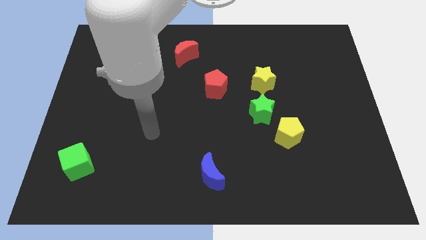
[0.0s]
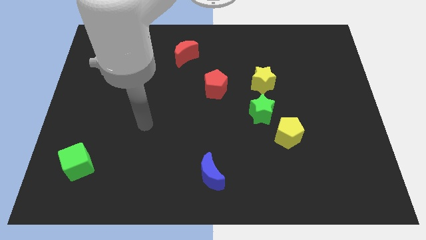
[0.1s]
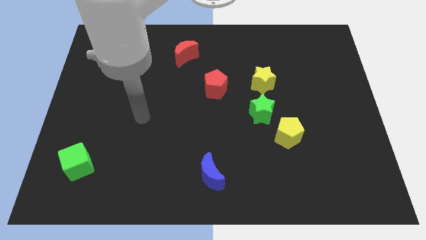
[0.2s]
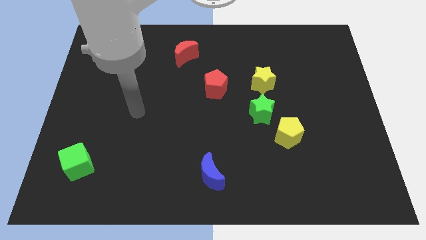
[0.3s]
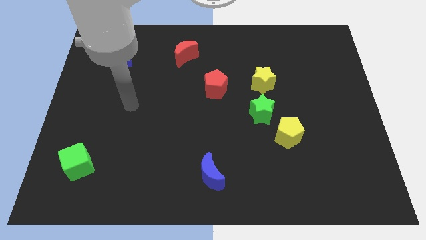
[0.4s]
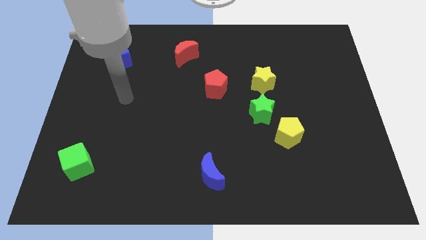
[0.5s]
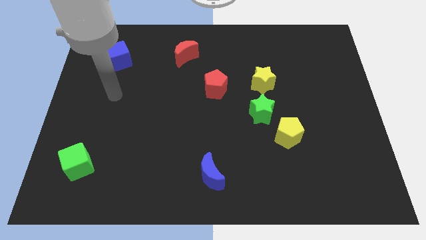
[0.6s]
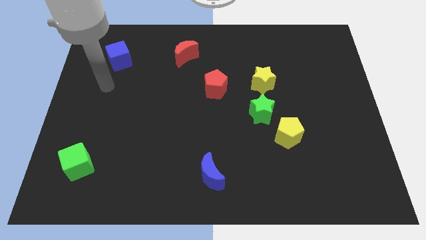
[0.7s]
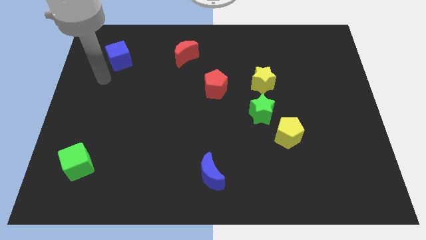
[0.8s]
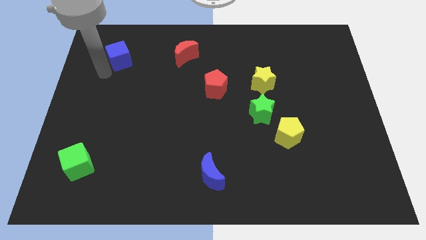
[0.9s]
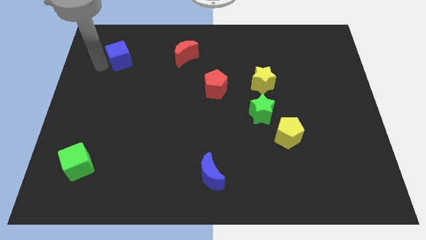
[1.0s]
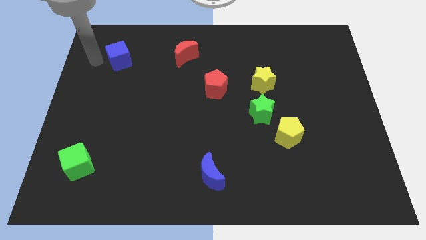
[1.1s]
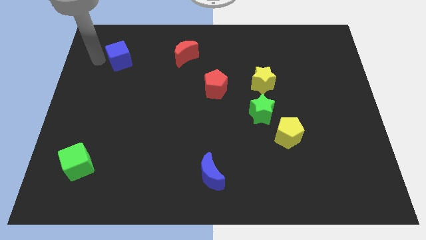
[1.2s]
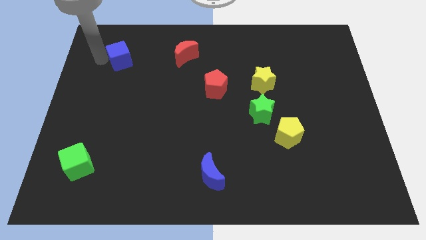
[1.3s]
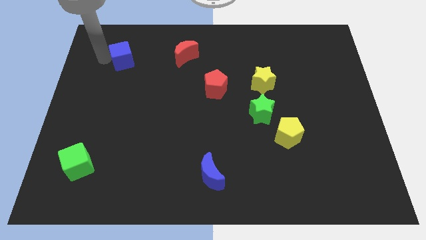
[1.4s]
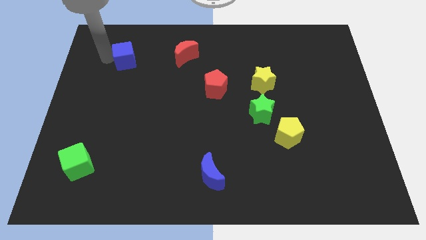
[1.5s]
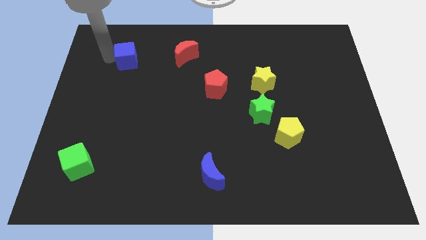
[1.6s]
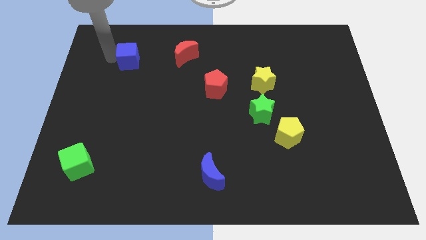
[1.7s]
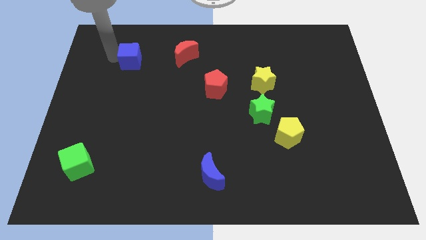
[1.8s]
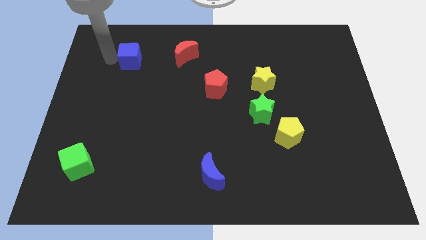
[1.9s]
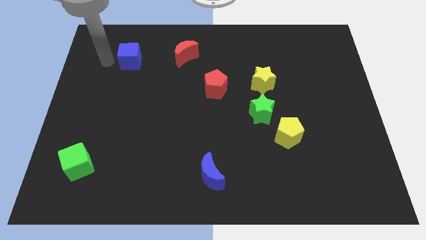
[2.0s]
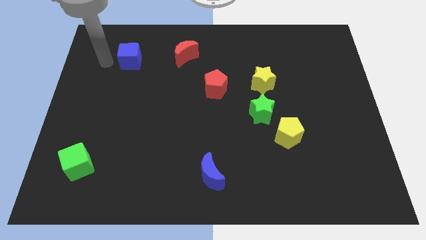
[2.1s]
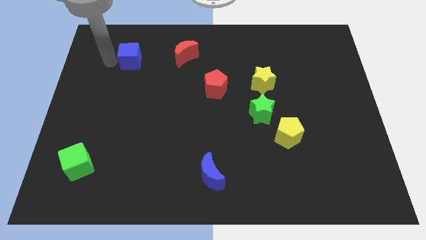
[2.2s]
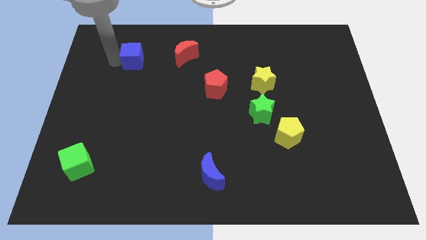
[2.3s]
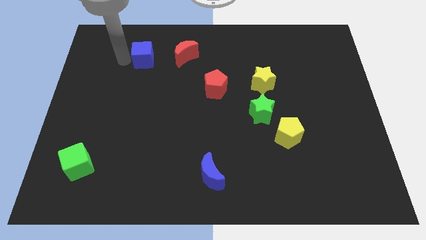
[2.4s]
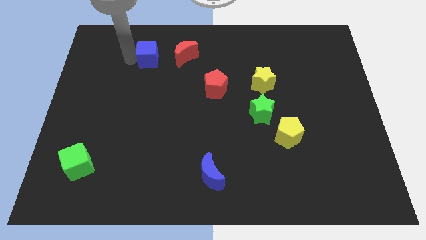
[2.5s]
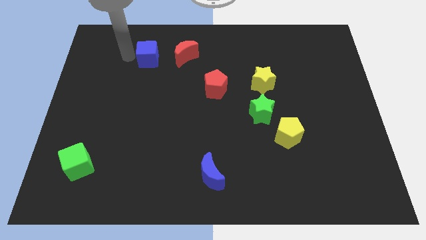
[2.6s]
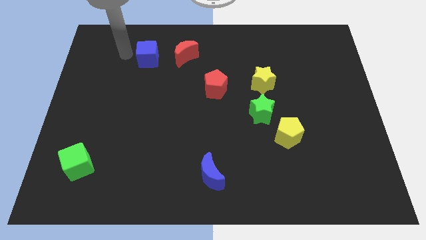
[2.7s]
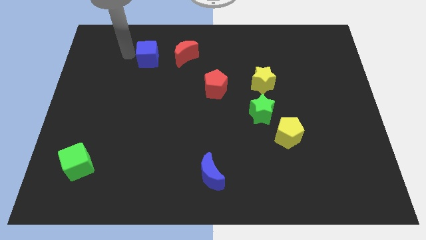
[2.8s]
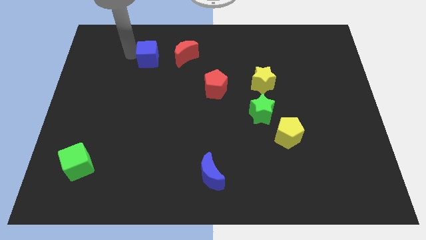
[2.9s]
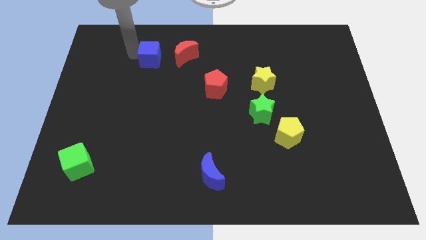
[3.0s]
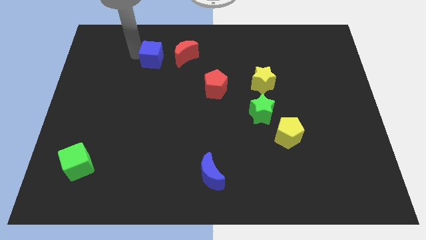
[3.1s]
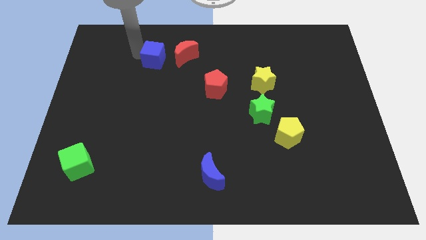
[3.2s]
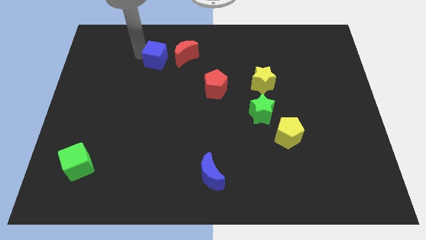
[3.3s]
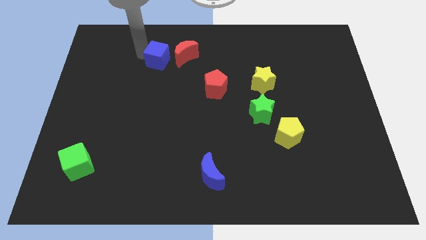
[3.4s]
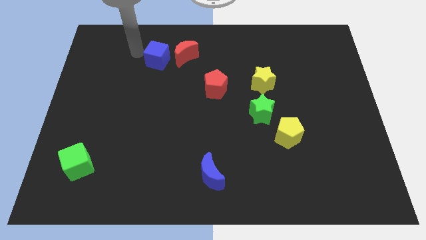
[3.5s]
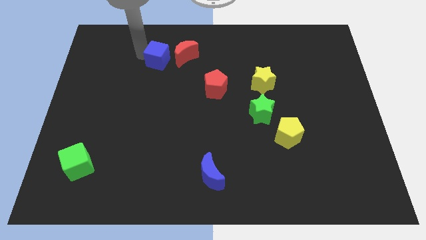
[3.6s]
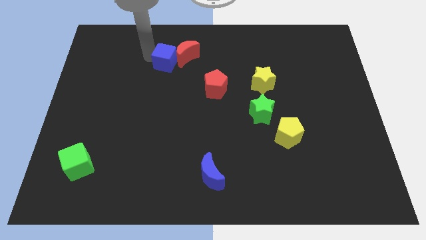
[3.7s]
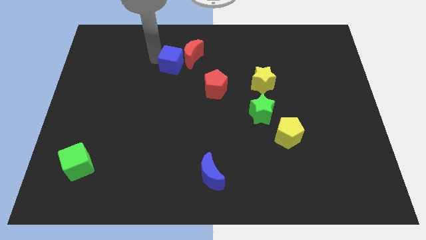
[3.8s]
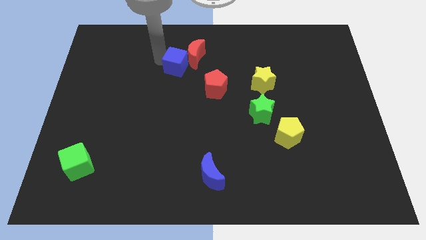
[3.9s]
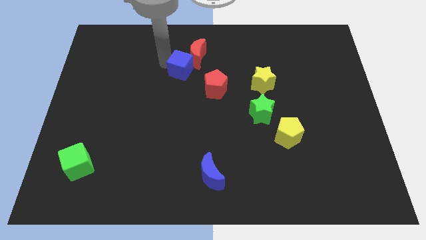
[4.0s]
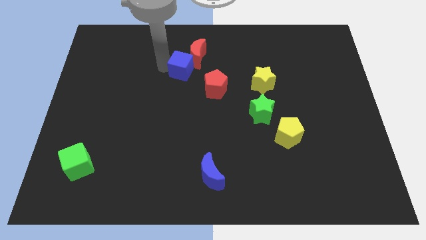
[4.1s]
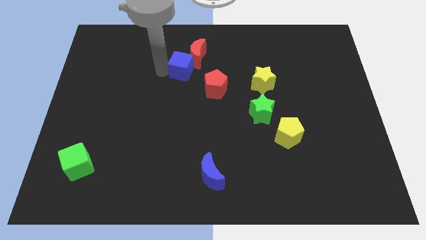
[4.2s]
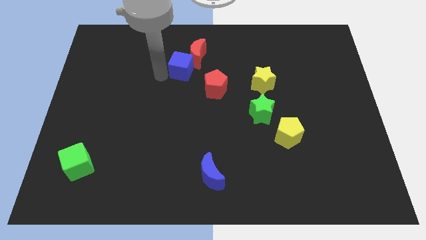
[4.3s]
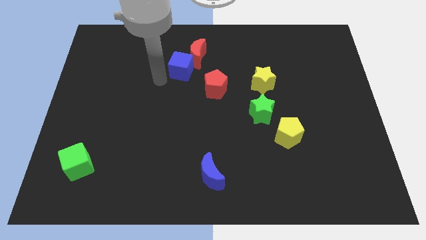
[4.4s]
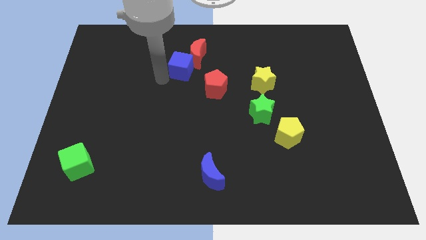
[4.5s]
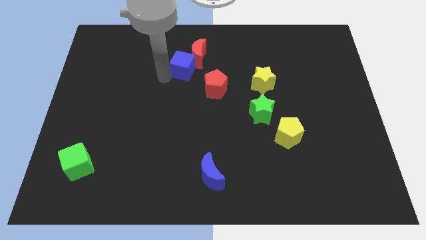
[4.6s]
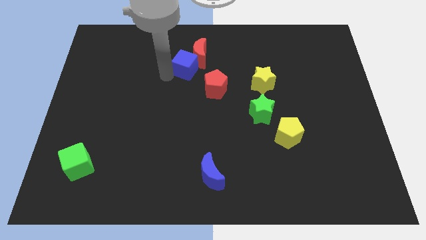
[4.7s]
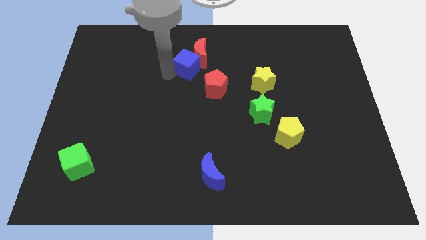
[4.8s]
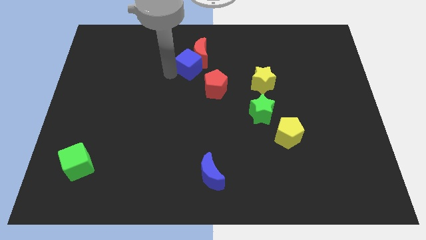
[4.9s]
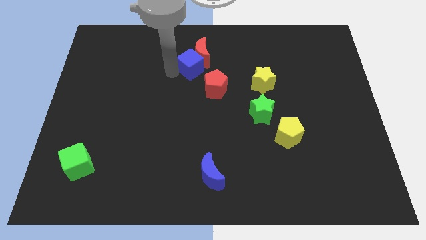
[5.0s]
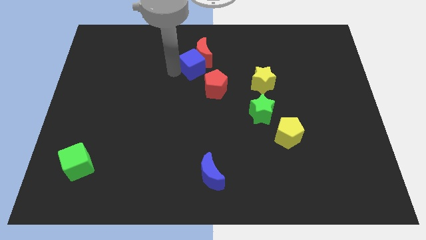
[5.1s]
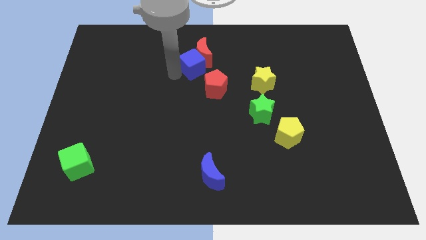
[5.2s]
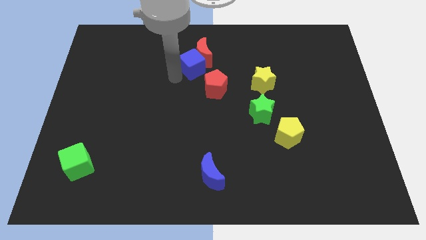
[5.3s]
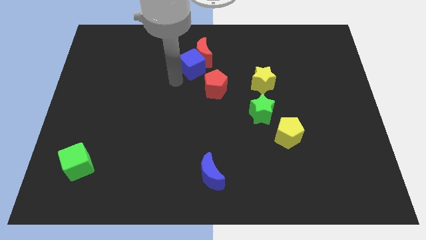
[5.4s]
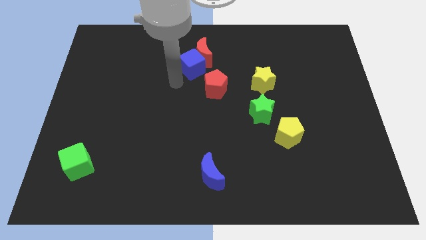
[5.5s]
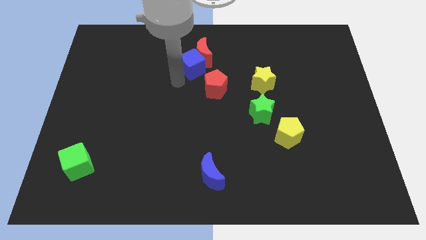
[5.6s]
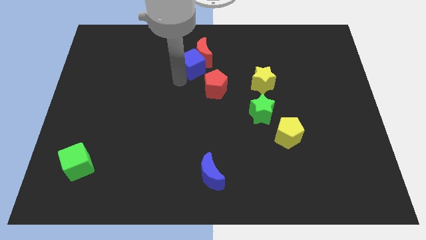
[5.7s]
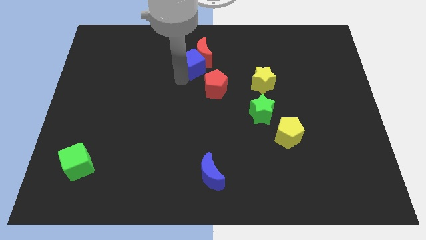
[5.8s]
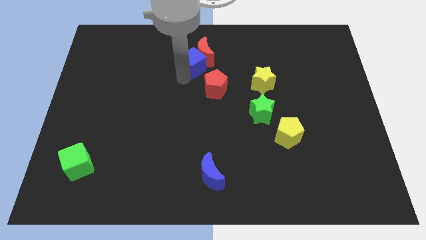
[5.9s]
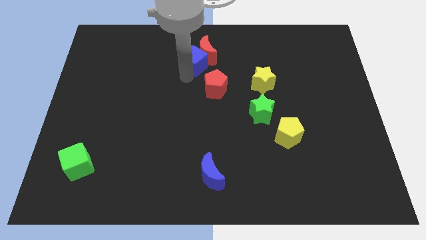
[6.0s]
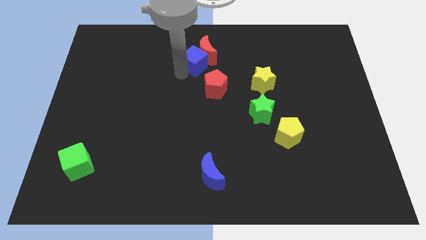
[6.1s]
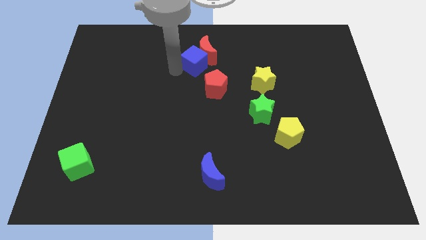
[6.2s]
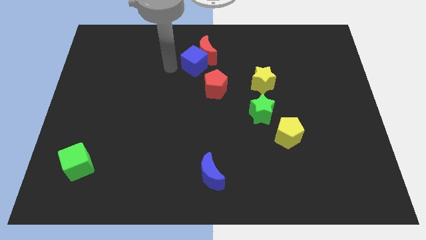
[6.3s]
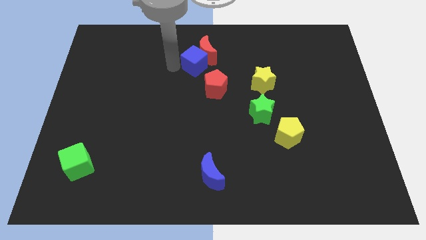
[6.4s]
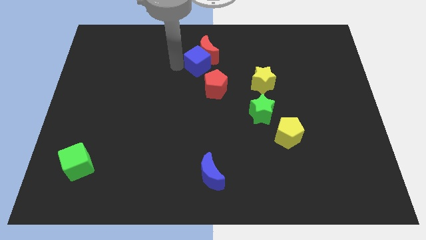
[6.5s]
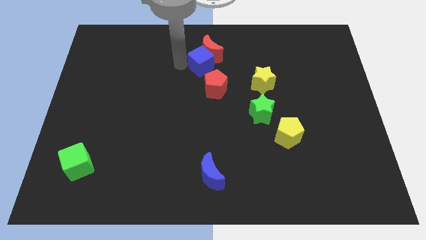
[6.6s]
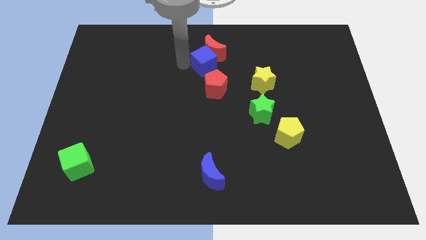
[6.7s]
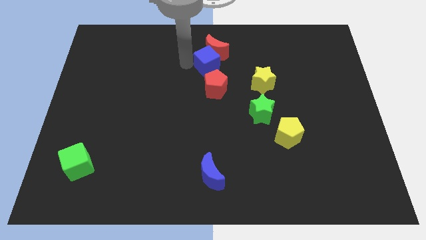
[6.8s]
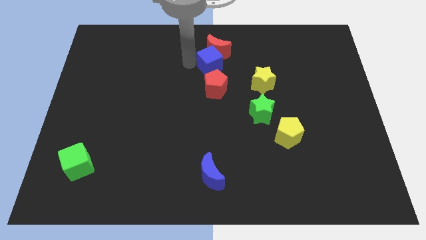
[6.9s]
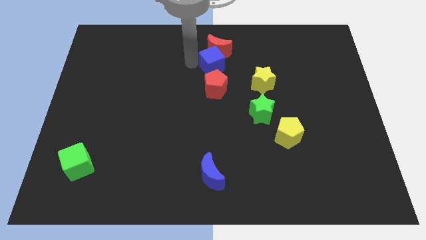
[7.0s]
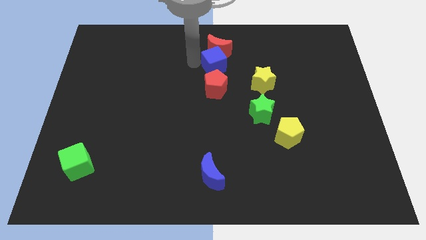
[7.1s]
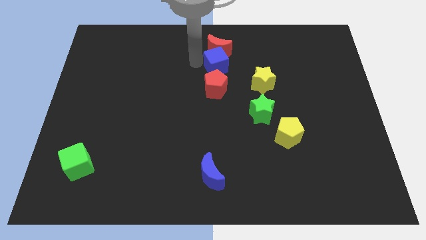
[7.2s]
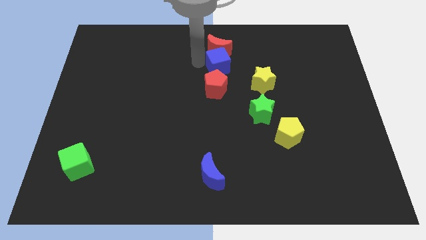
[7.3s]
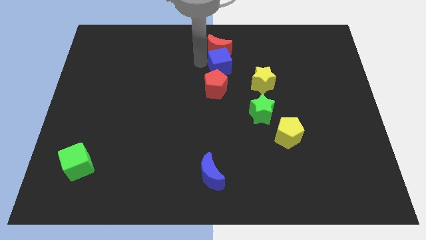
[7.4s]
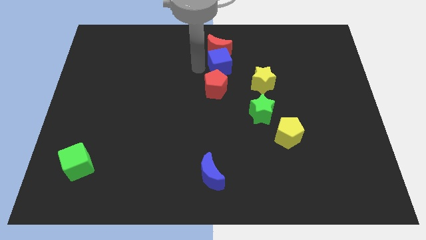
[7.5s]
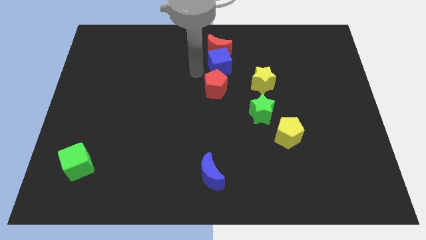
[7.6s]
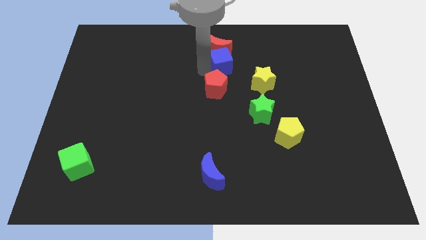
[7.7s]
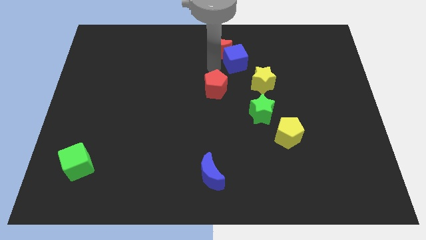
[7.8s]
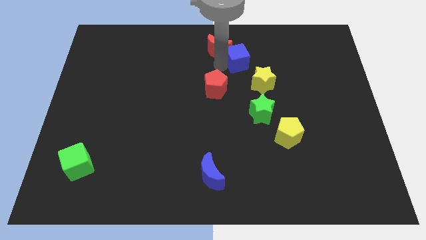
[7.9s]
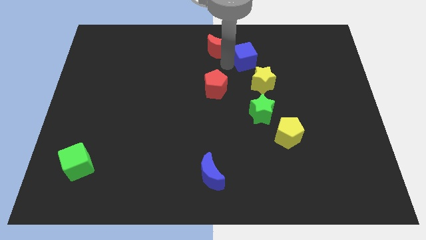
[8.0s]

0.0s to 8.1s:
push the blue cube to the top side of the yellow star
